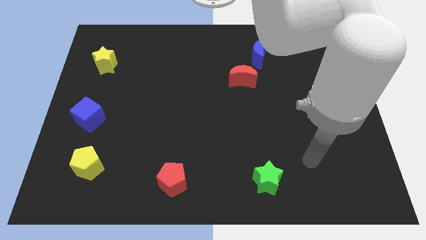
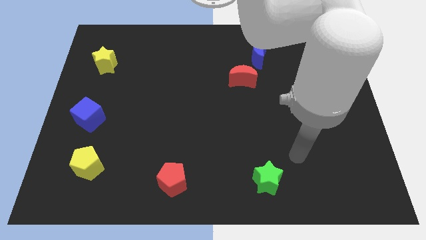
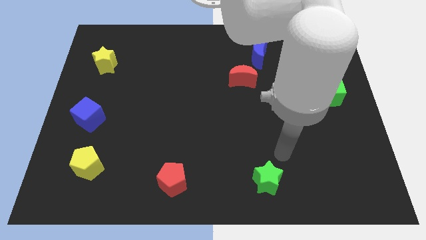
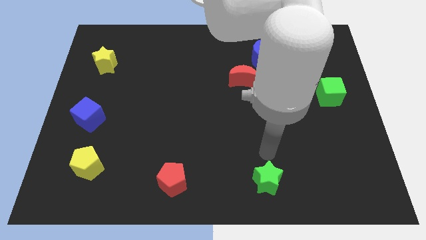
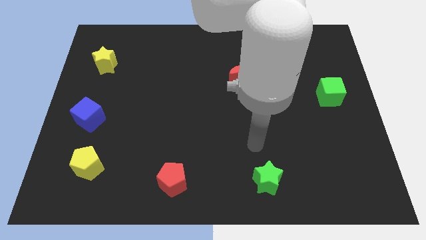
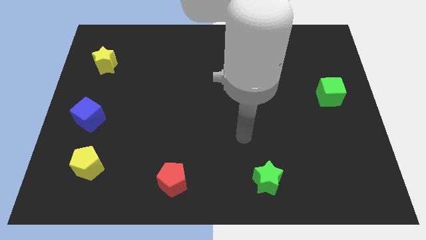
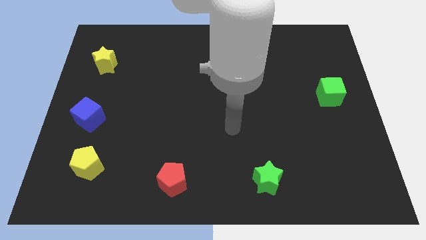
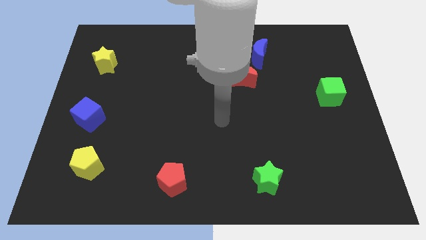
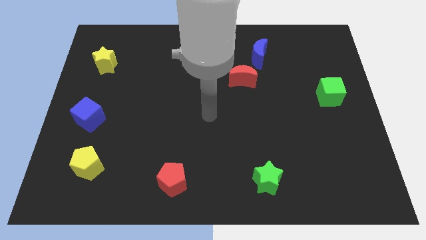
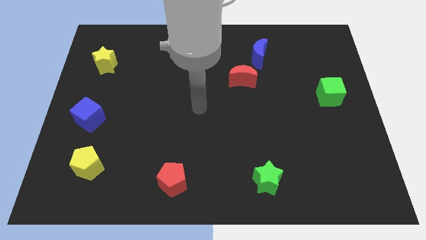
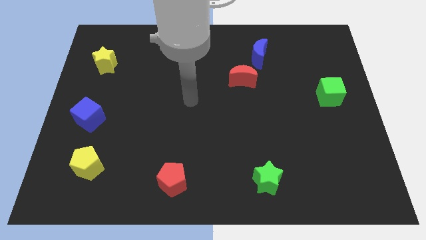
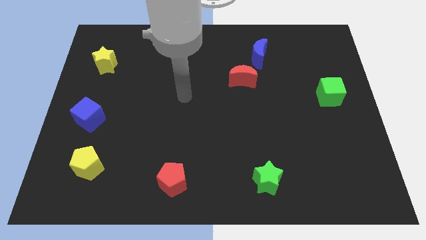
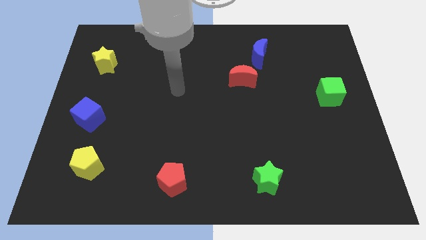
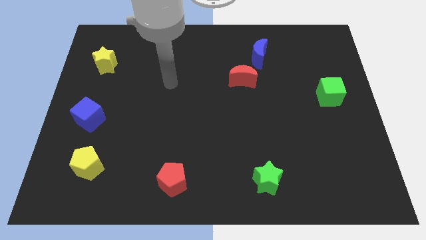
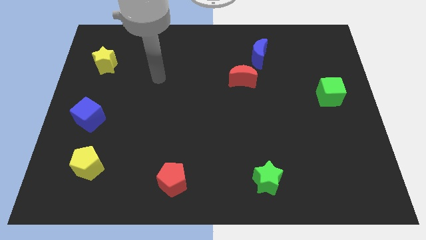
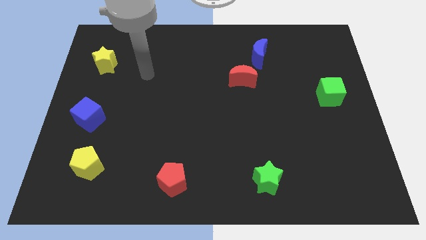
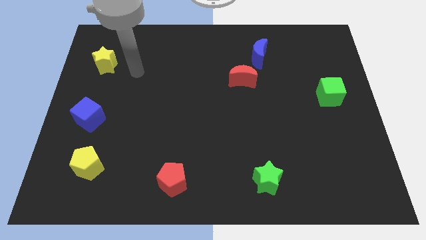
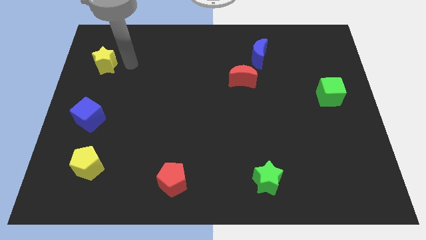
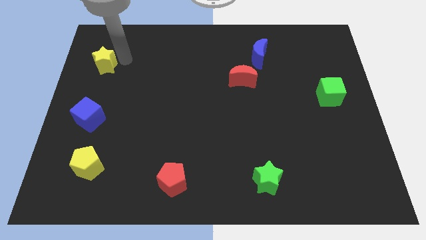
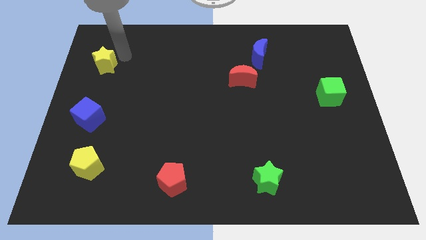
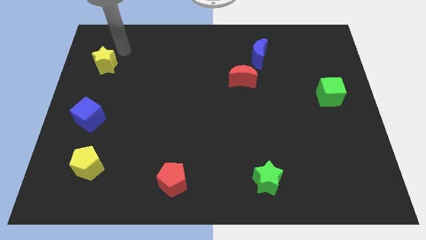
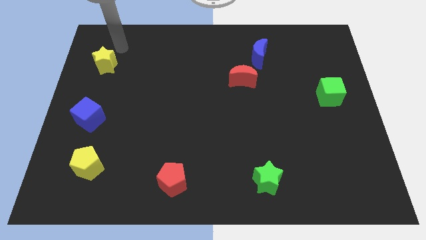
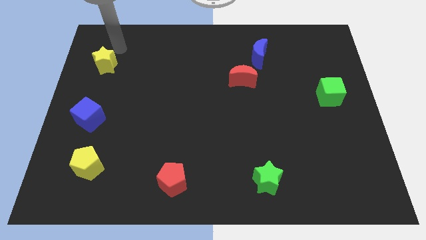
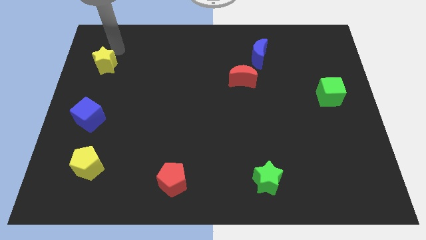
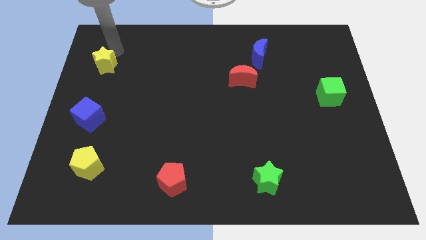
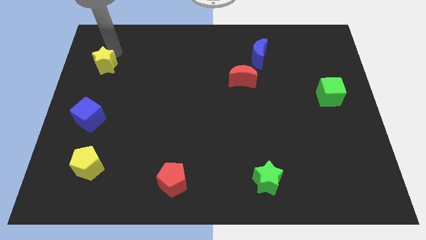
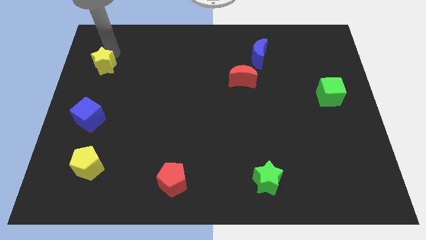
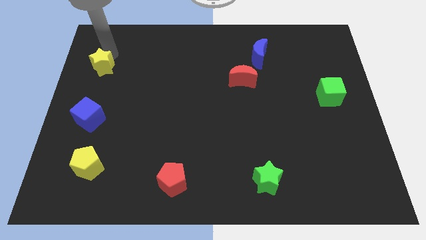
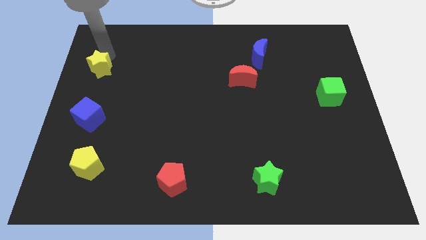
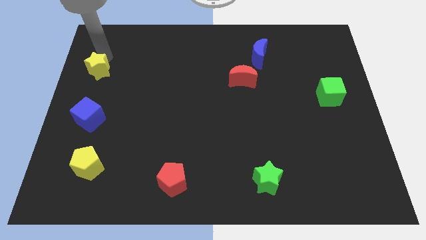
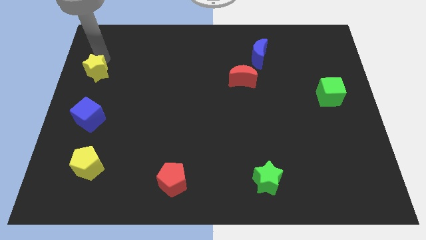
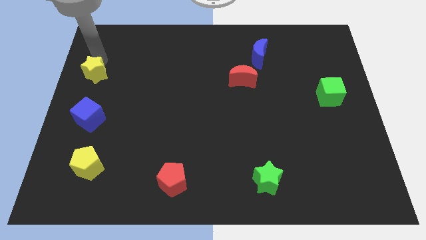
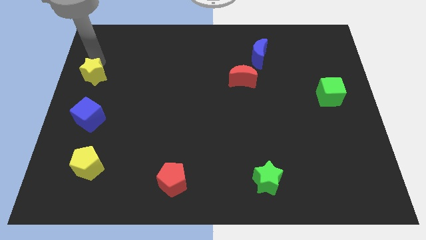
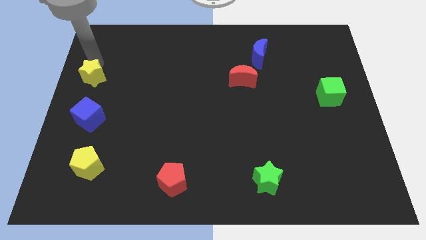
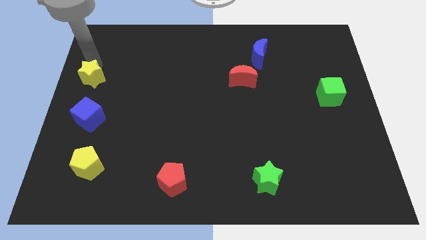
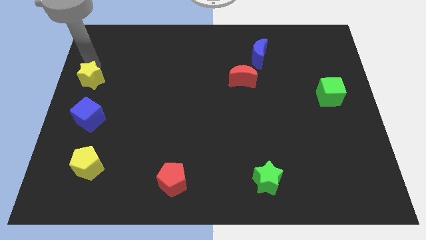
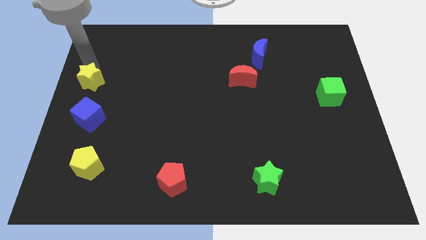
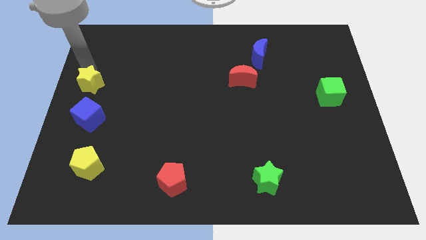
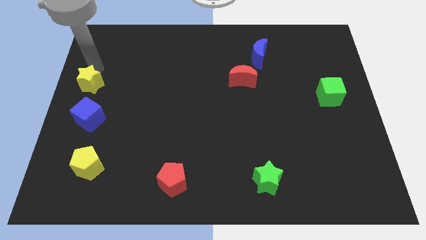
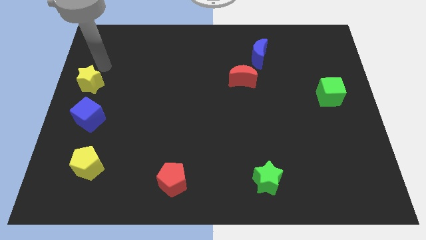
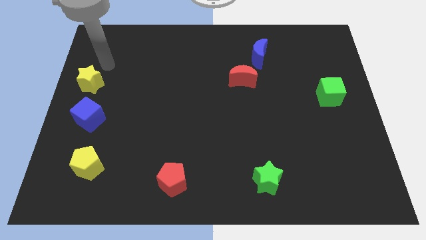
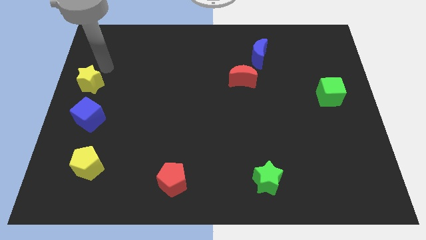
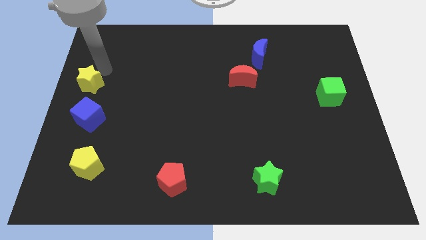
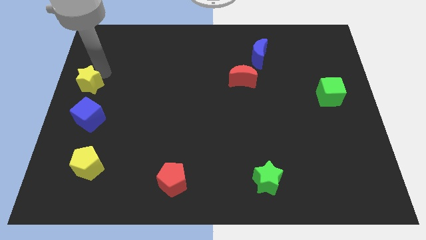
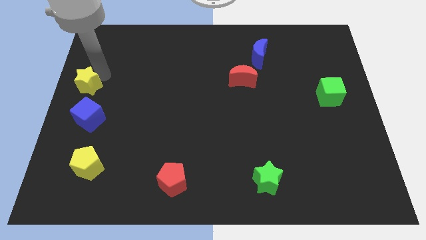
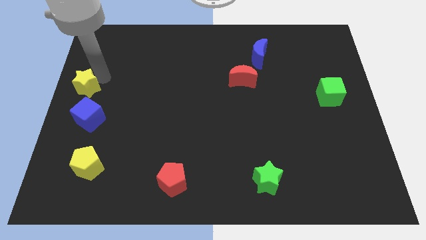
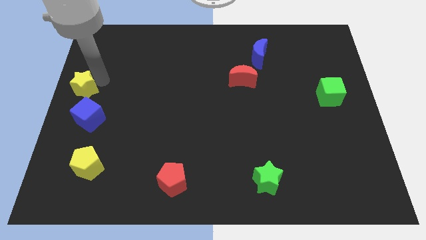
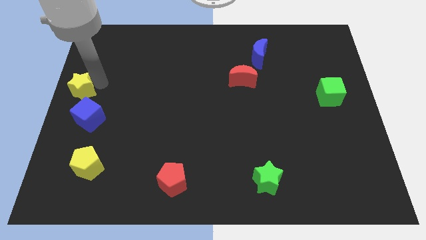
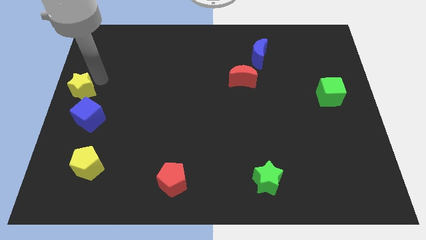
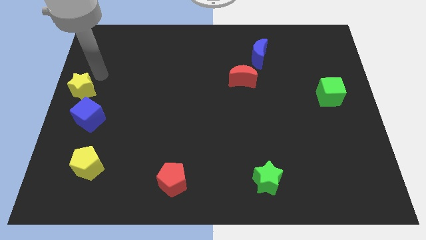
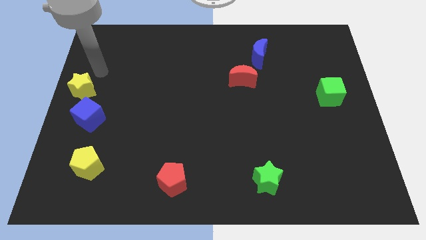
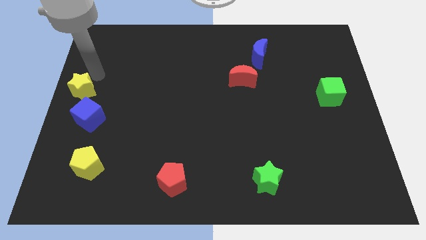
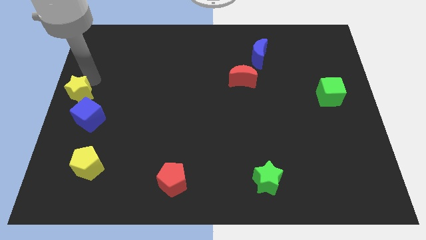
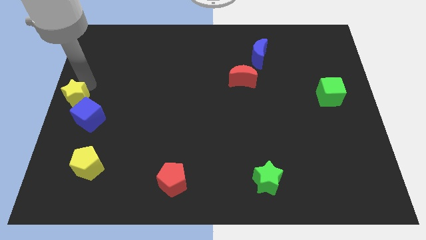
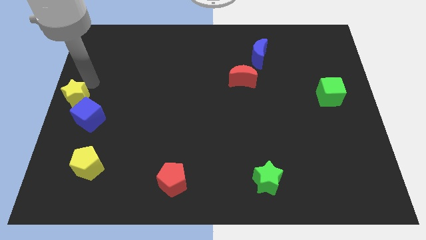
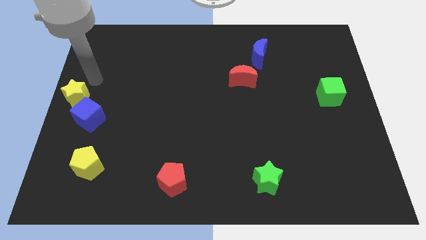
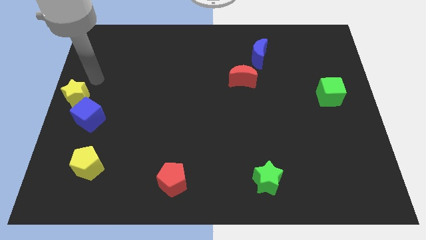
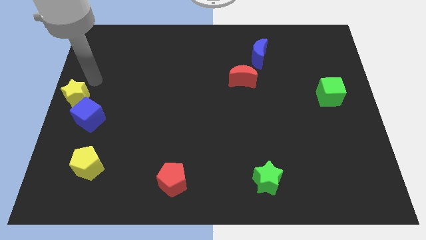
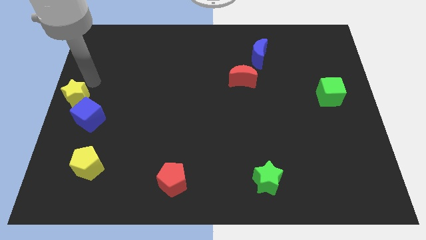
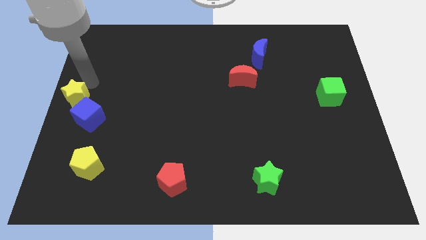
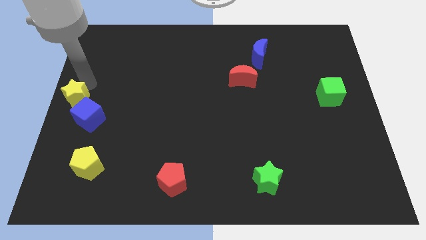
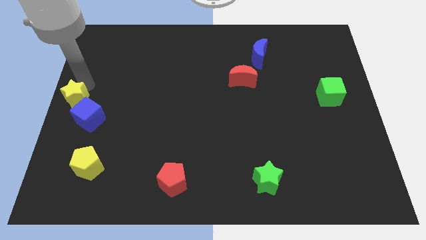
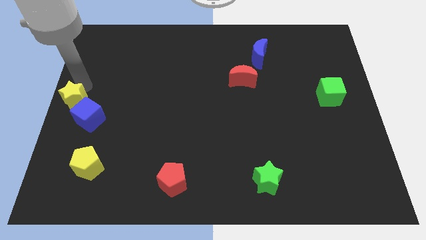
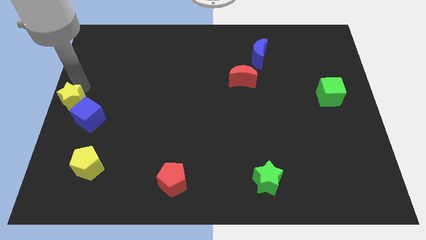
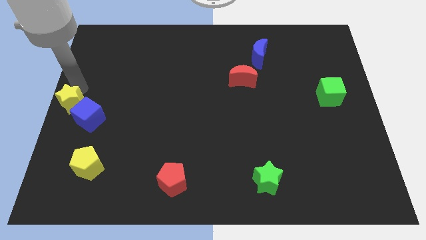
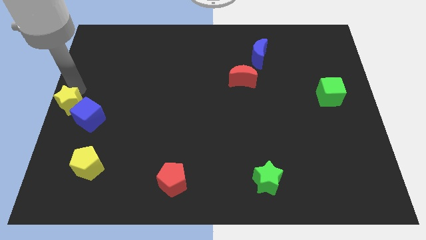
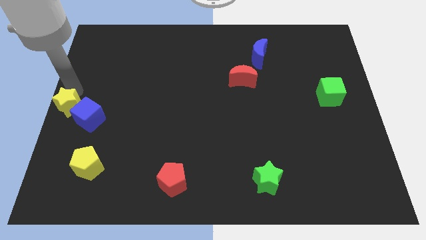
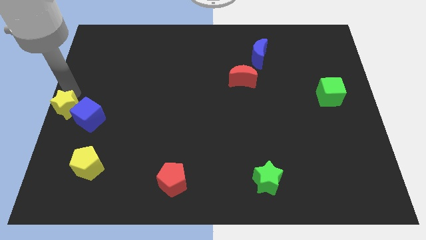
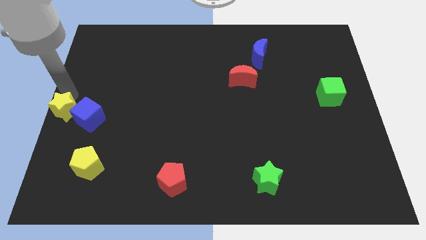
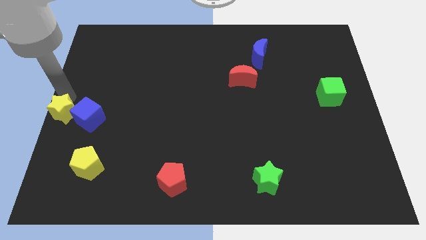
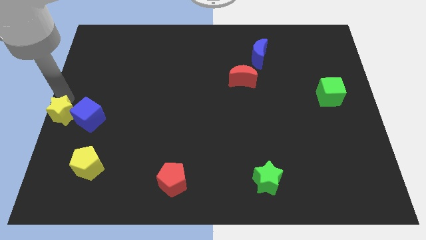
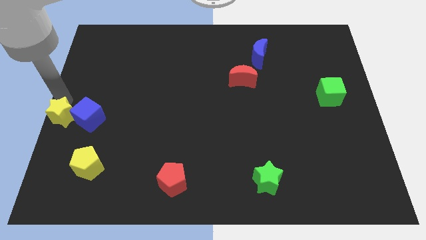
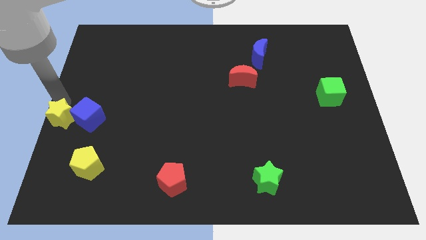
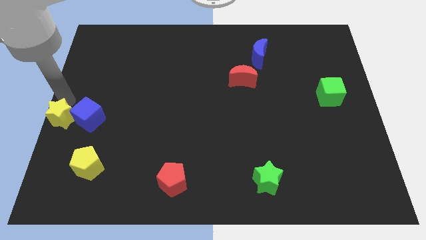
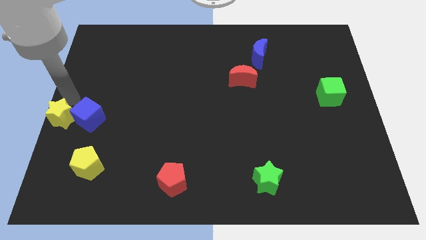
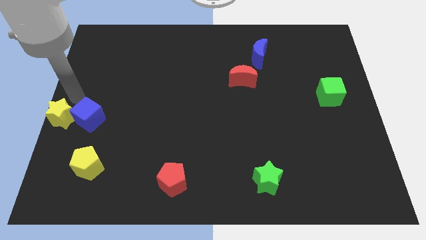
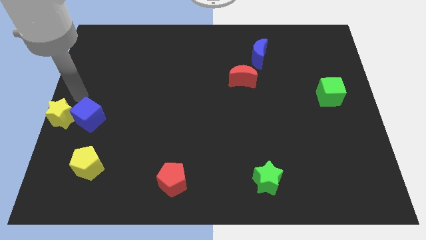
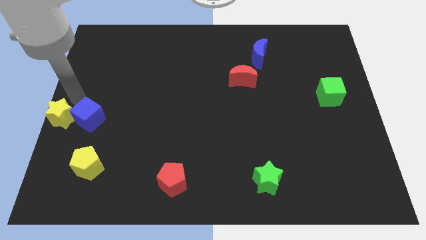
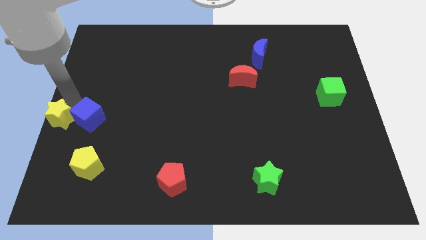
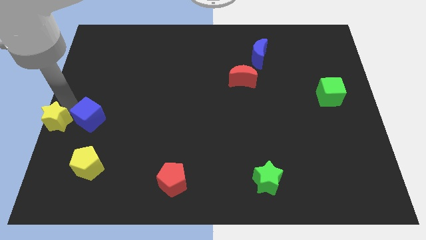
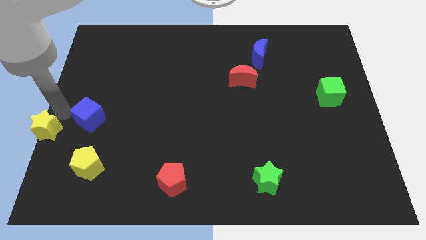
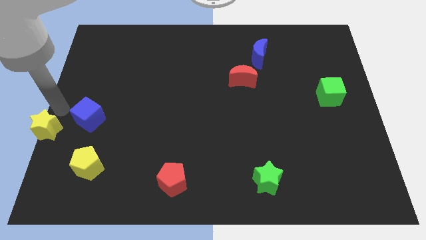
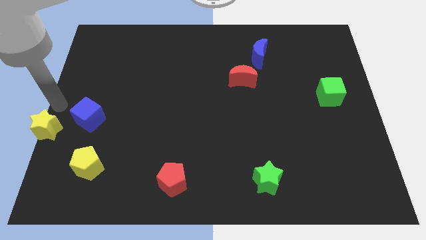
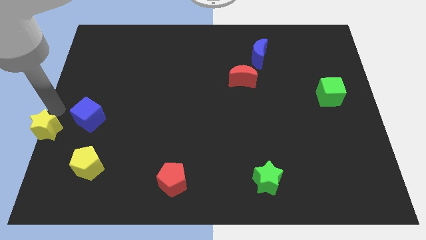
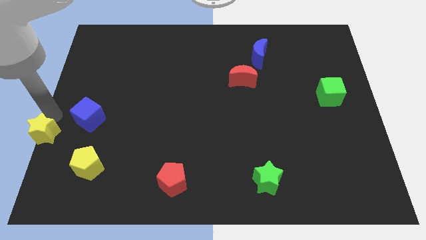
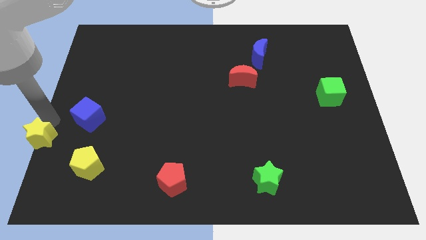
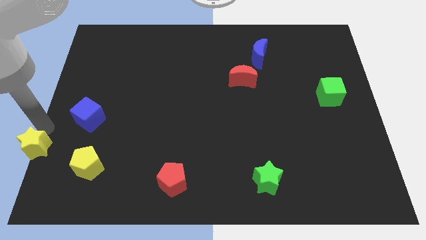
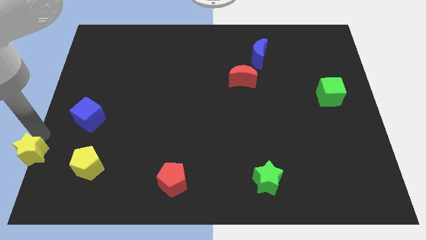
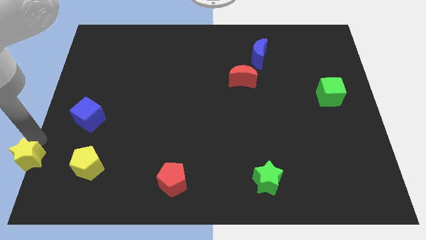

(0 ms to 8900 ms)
slide the yellow star to the bottom left of the board
